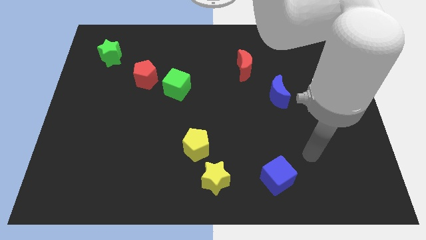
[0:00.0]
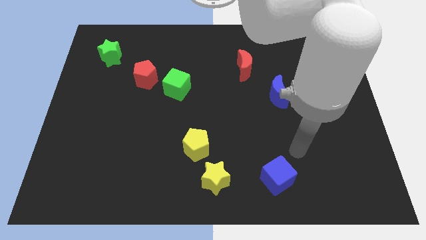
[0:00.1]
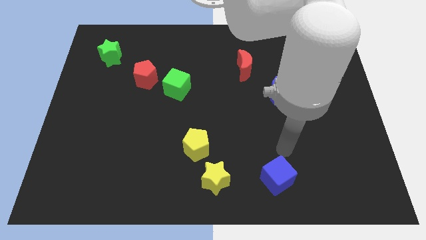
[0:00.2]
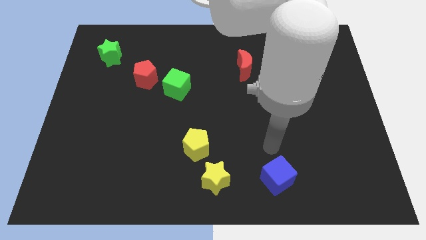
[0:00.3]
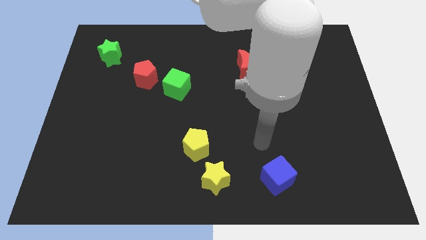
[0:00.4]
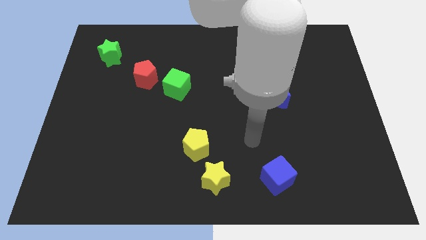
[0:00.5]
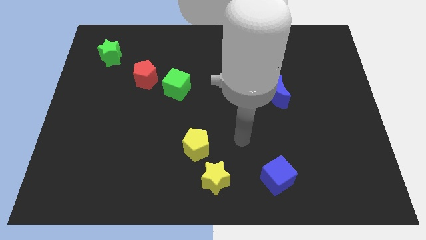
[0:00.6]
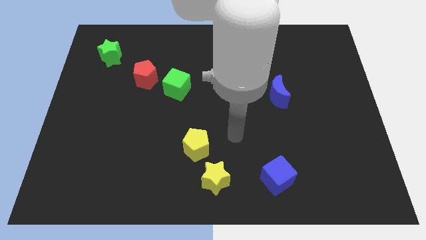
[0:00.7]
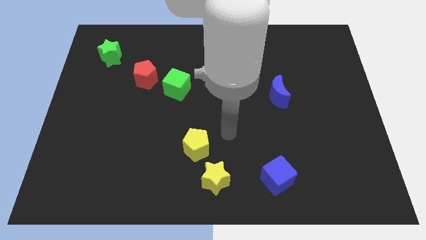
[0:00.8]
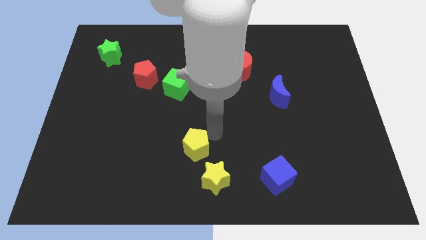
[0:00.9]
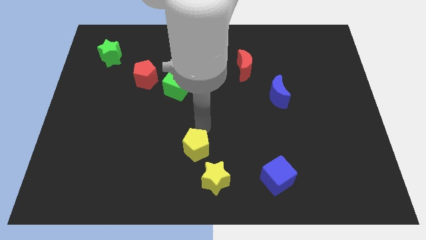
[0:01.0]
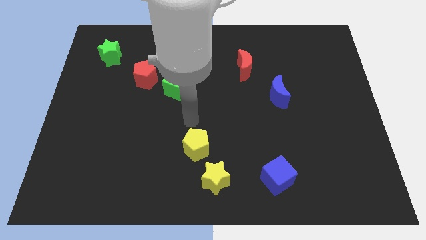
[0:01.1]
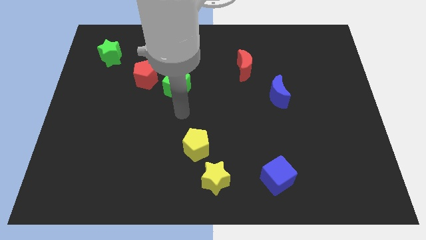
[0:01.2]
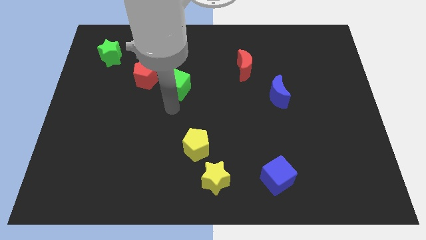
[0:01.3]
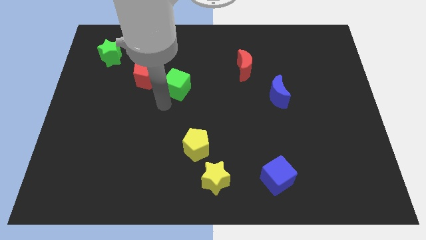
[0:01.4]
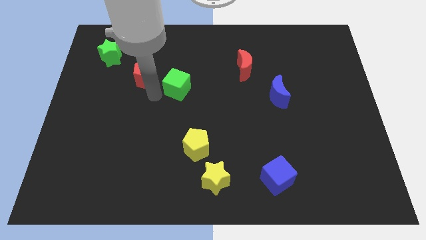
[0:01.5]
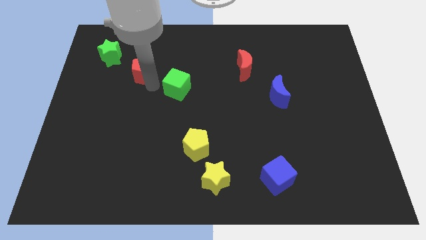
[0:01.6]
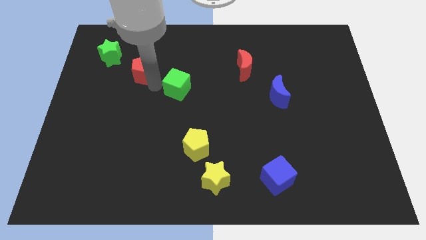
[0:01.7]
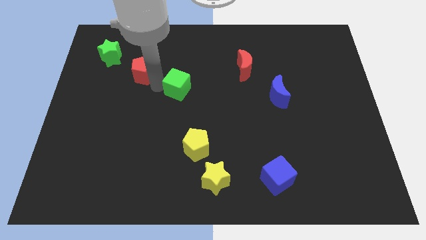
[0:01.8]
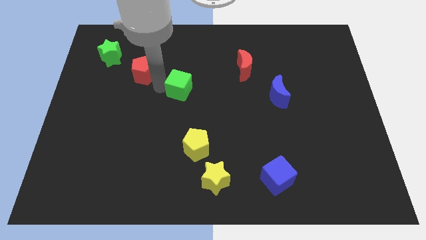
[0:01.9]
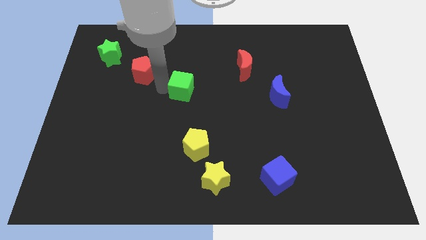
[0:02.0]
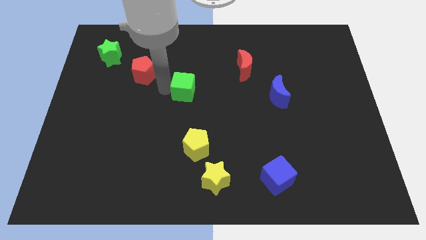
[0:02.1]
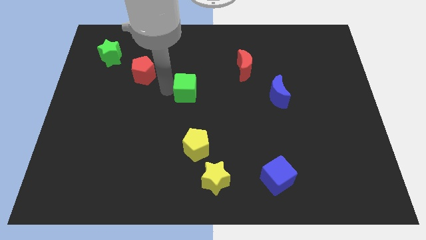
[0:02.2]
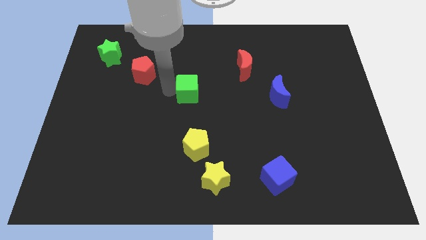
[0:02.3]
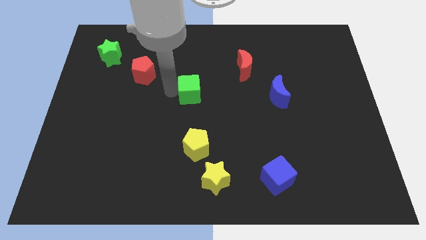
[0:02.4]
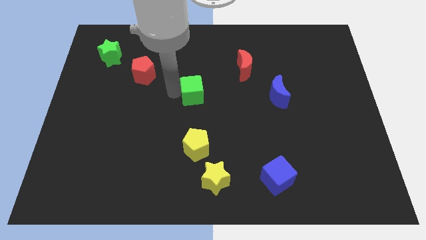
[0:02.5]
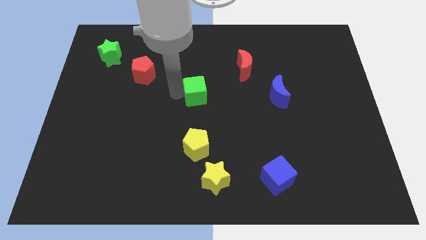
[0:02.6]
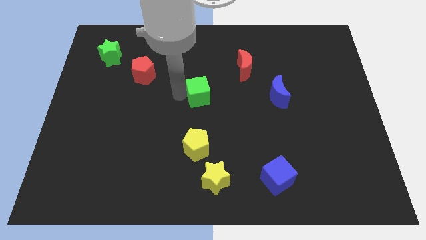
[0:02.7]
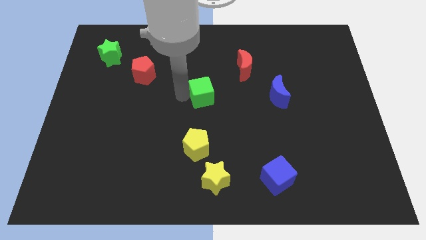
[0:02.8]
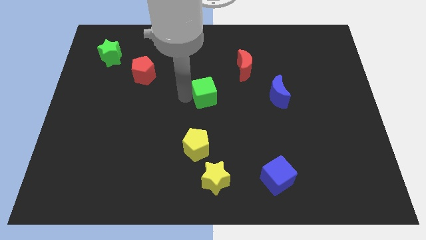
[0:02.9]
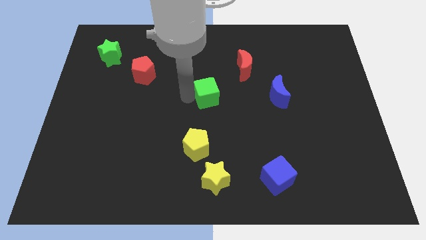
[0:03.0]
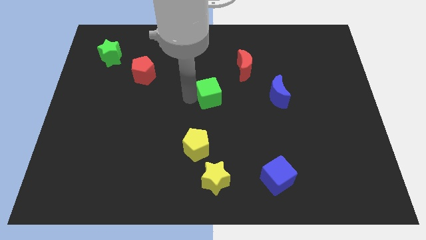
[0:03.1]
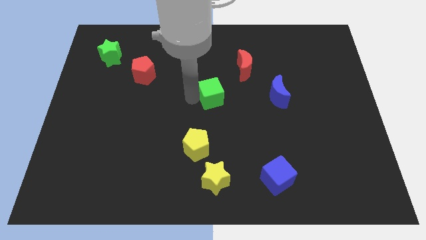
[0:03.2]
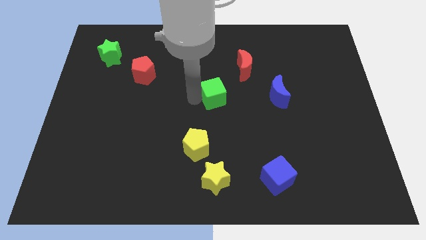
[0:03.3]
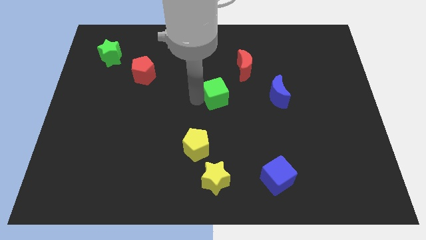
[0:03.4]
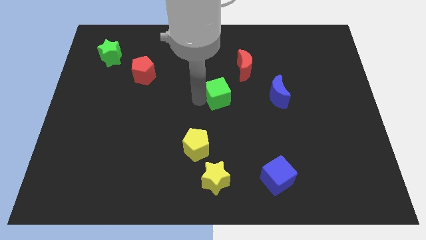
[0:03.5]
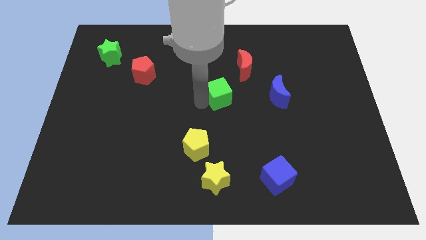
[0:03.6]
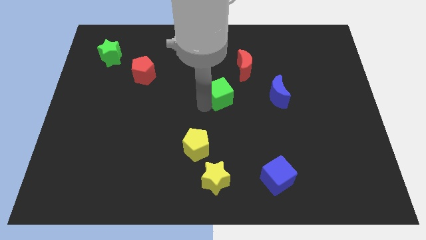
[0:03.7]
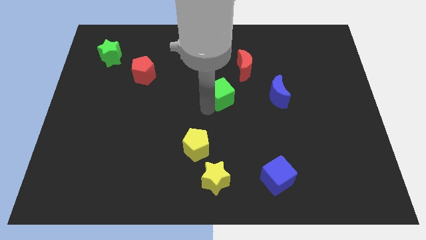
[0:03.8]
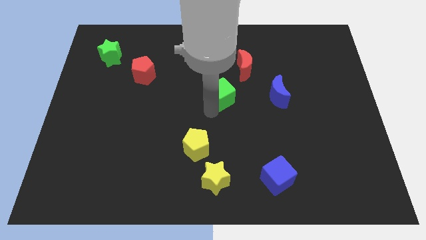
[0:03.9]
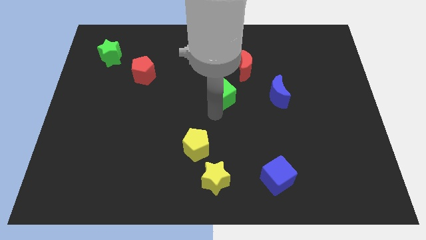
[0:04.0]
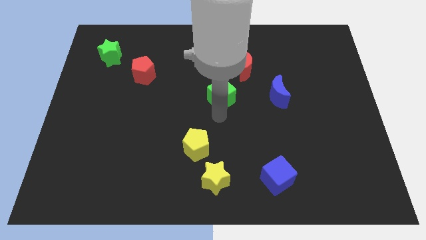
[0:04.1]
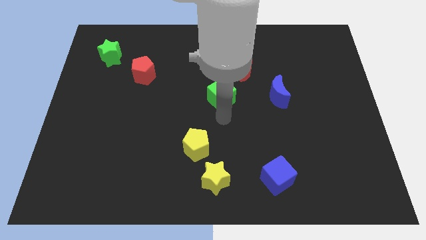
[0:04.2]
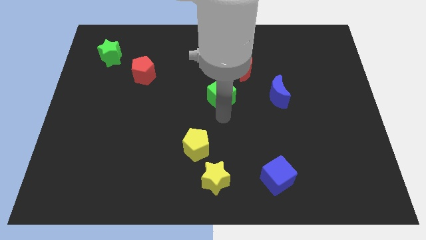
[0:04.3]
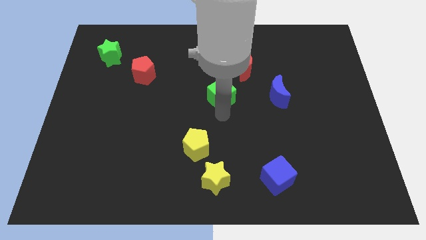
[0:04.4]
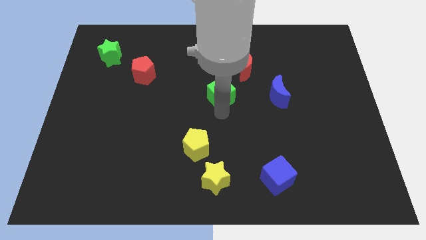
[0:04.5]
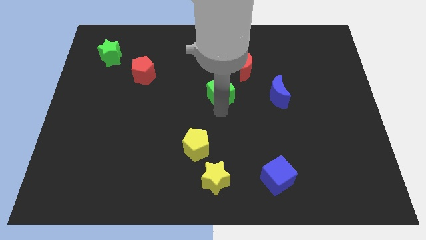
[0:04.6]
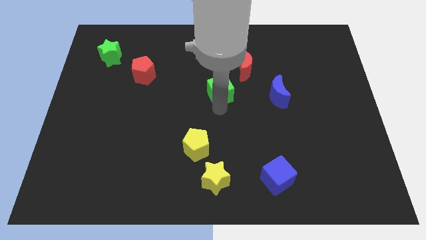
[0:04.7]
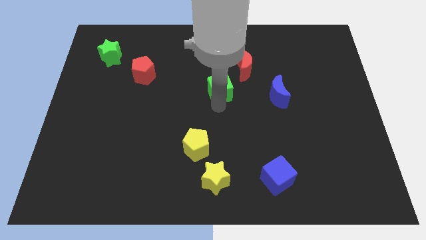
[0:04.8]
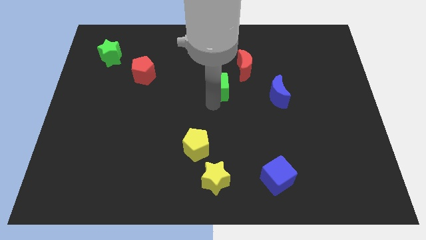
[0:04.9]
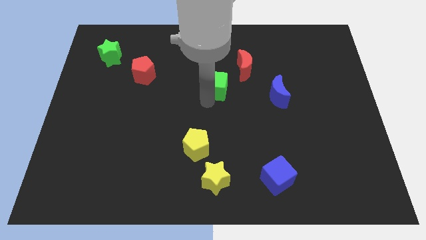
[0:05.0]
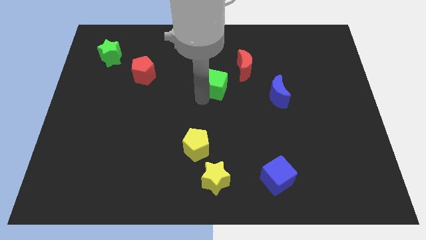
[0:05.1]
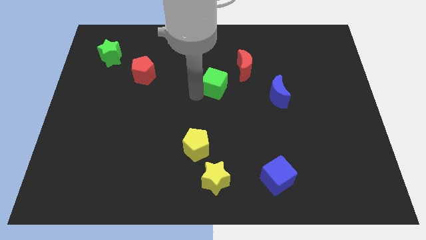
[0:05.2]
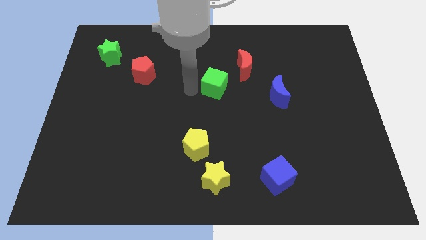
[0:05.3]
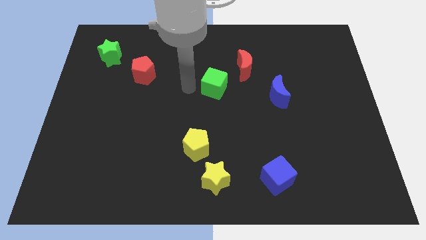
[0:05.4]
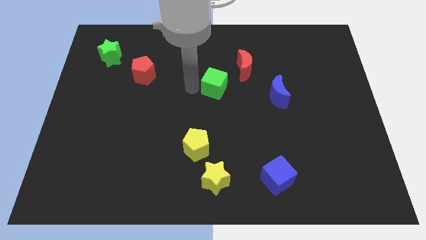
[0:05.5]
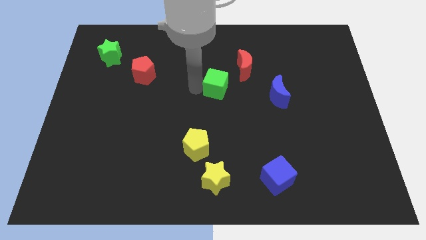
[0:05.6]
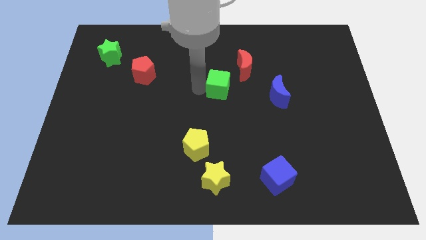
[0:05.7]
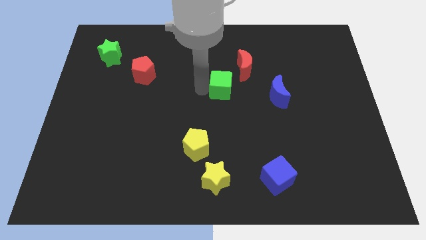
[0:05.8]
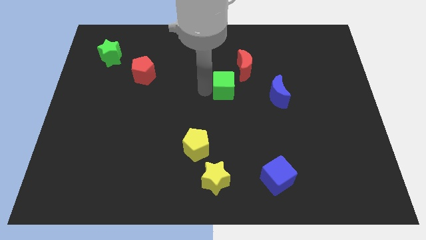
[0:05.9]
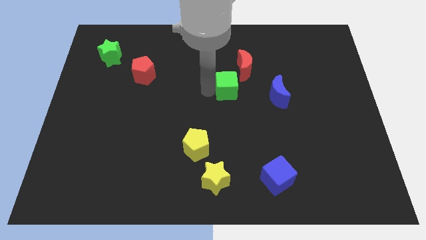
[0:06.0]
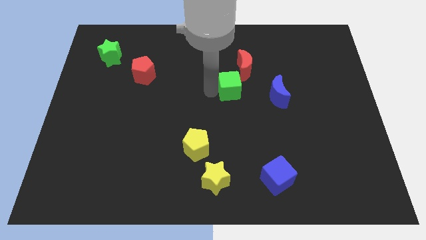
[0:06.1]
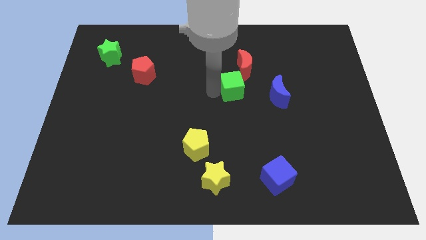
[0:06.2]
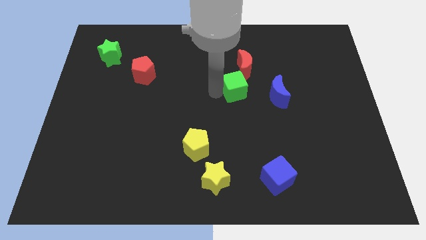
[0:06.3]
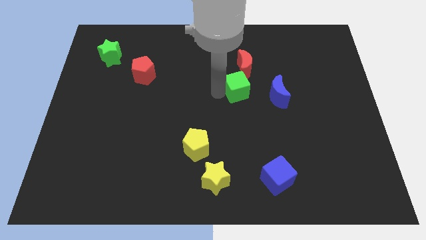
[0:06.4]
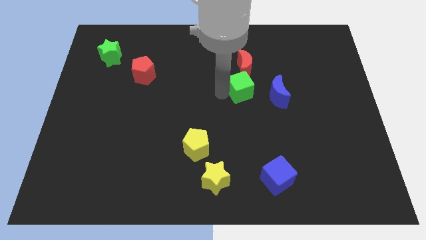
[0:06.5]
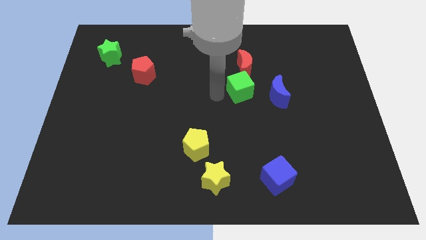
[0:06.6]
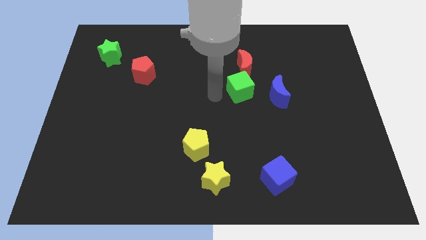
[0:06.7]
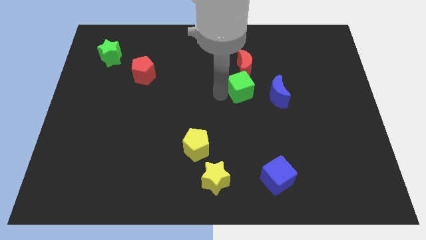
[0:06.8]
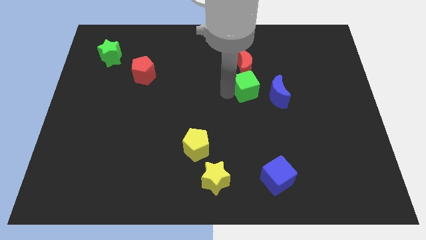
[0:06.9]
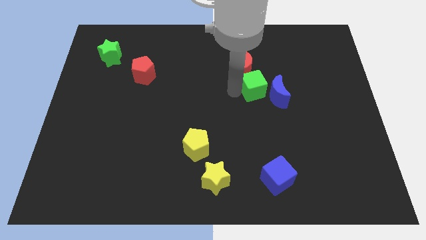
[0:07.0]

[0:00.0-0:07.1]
slide the green cube to the bottom right of the red moon
